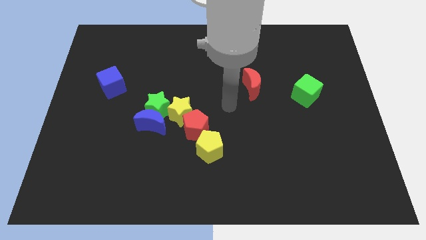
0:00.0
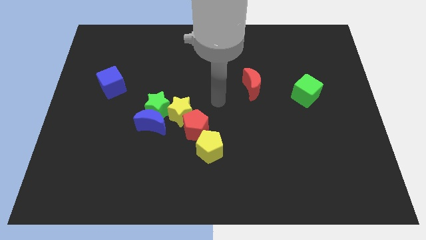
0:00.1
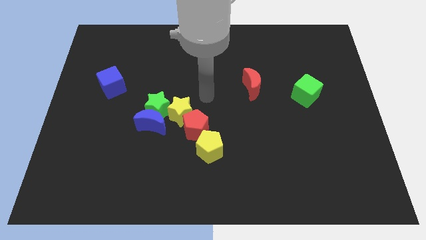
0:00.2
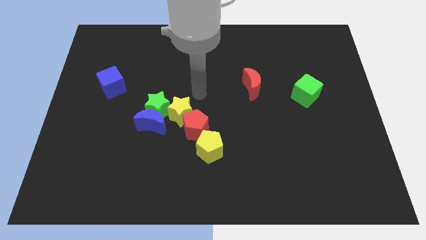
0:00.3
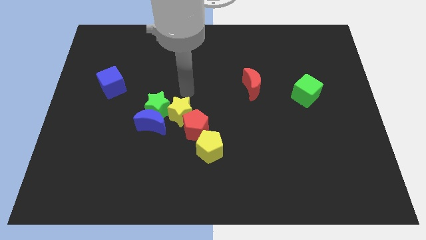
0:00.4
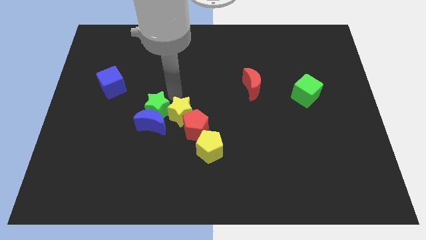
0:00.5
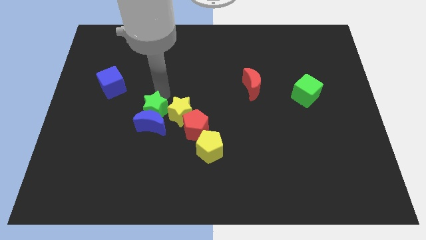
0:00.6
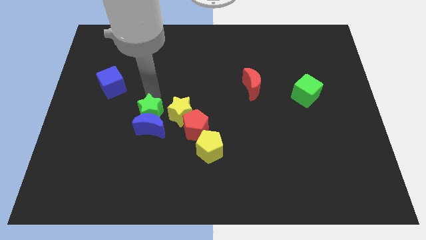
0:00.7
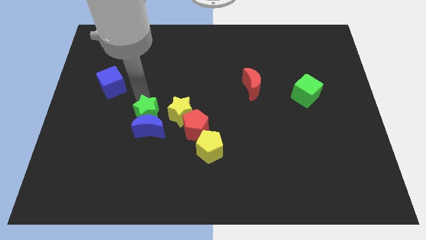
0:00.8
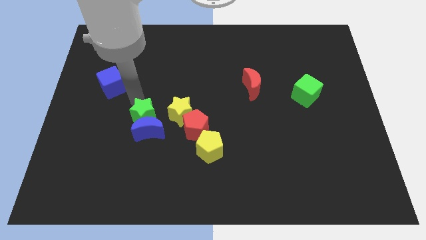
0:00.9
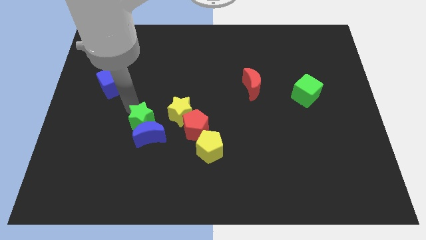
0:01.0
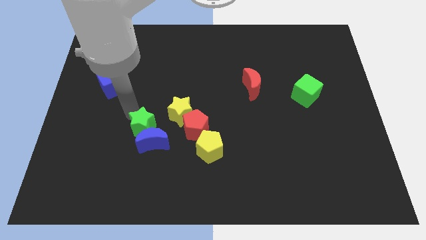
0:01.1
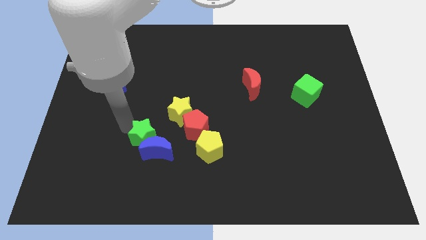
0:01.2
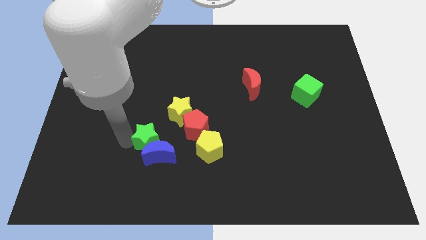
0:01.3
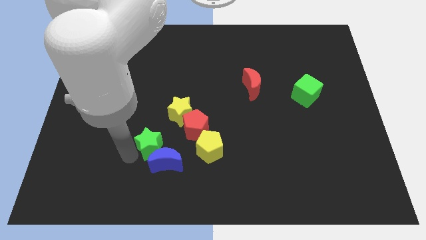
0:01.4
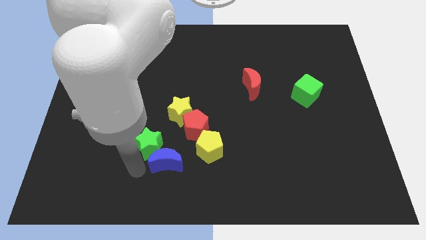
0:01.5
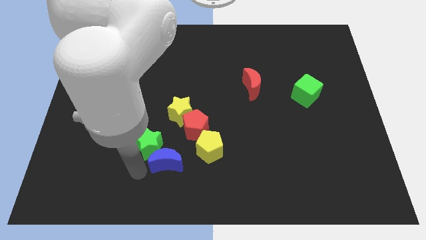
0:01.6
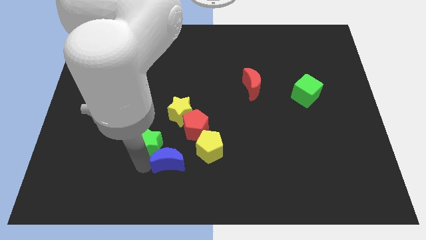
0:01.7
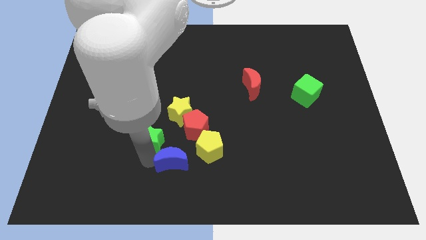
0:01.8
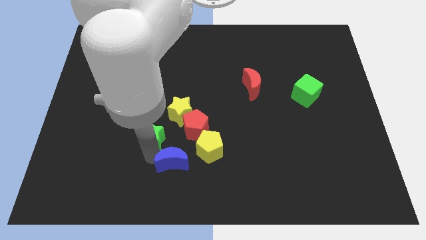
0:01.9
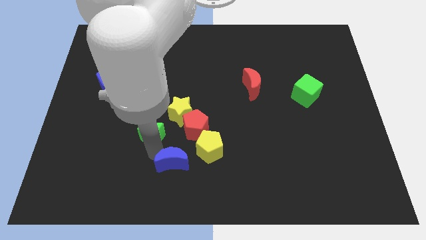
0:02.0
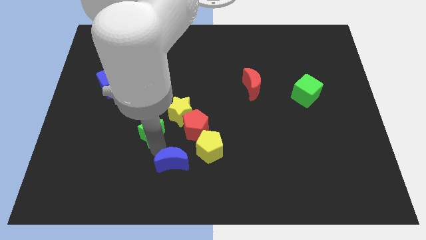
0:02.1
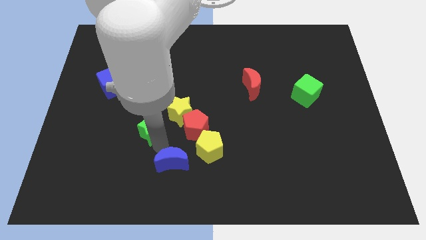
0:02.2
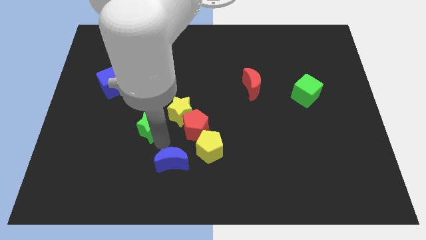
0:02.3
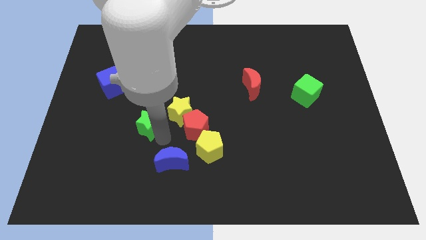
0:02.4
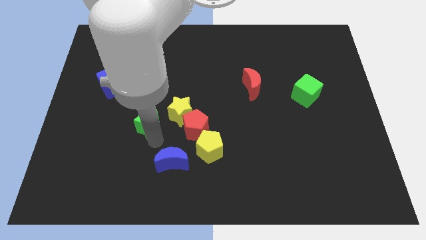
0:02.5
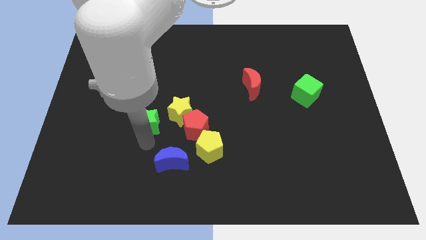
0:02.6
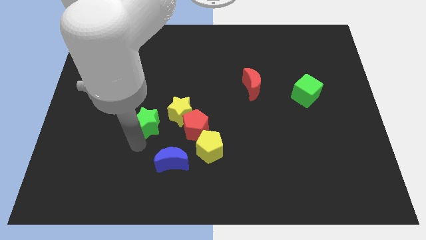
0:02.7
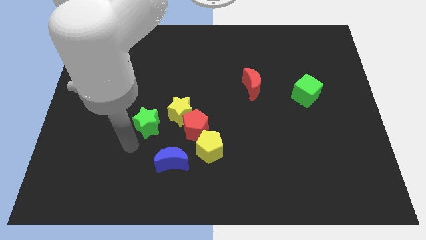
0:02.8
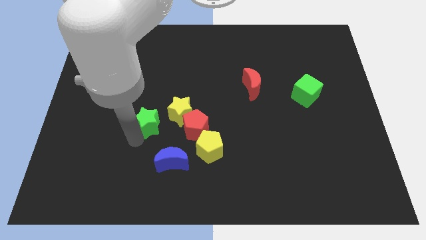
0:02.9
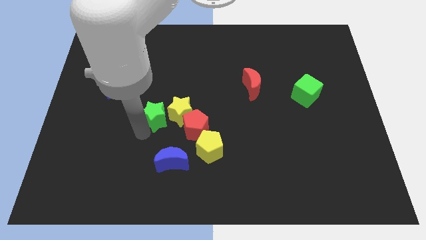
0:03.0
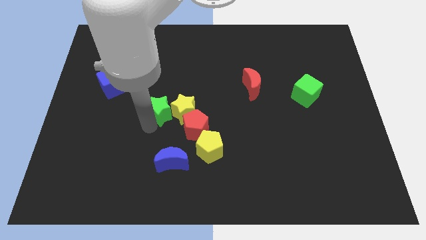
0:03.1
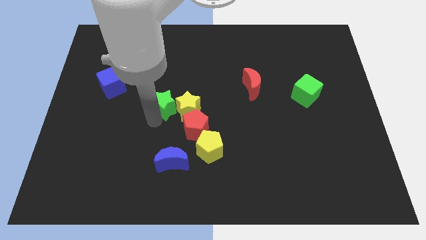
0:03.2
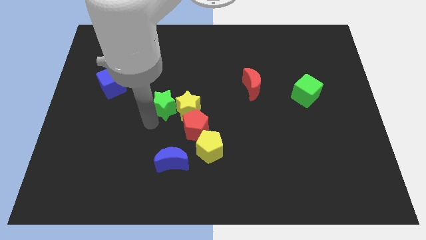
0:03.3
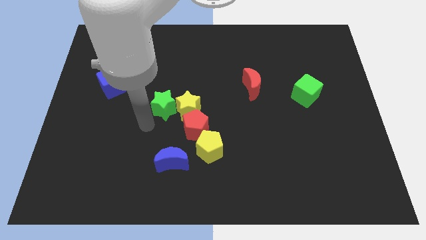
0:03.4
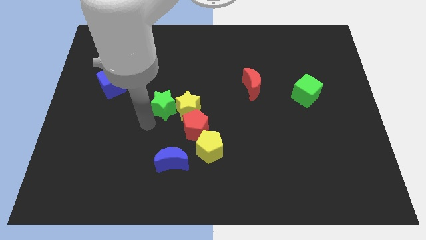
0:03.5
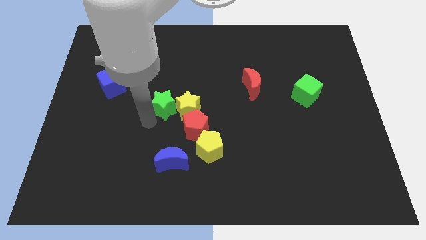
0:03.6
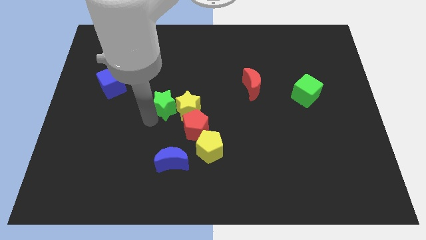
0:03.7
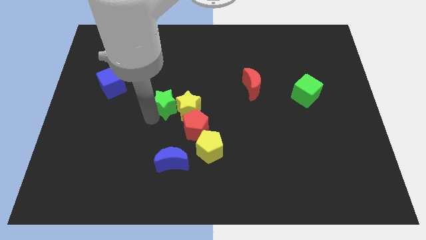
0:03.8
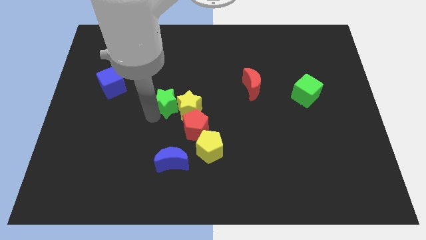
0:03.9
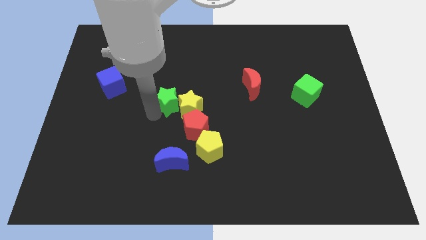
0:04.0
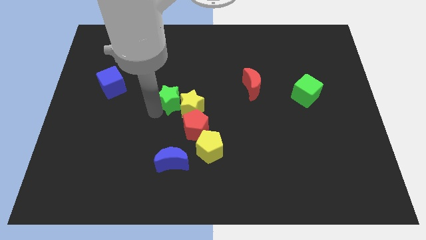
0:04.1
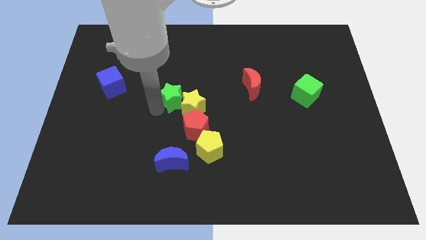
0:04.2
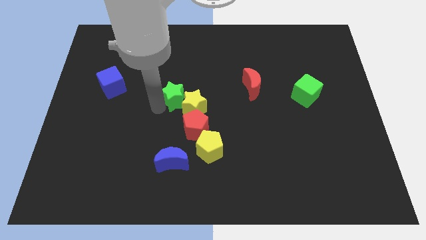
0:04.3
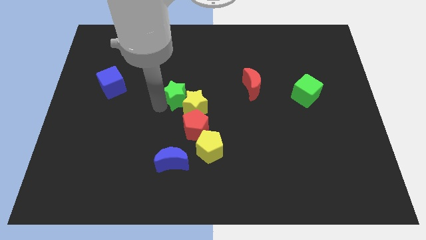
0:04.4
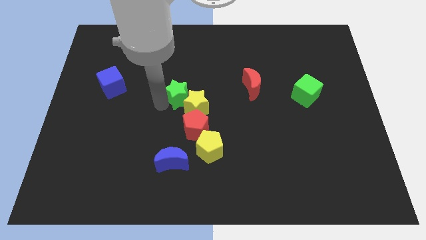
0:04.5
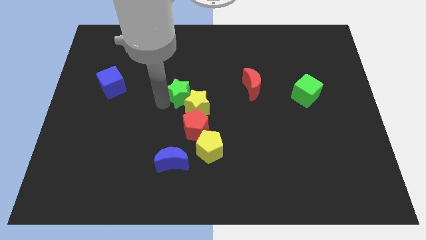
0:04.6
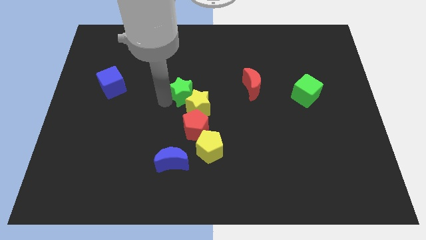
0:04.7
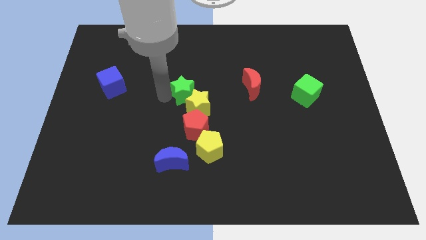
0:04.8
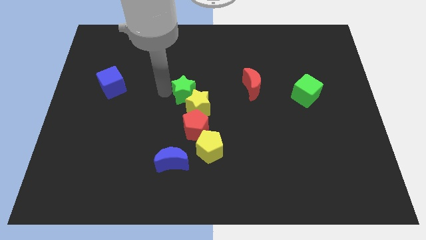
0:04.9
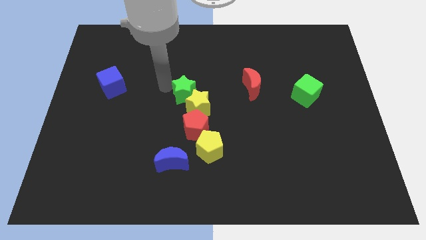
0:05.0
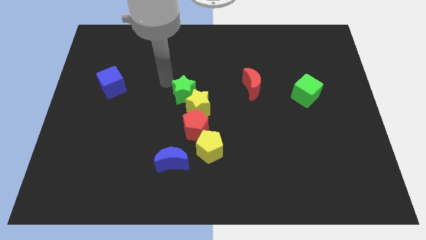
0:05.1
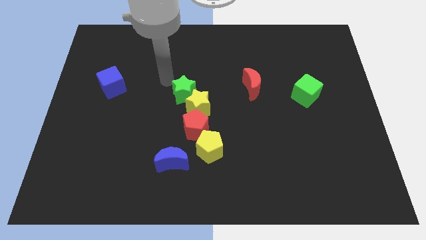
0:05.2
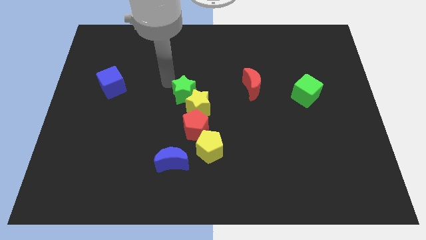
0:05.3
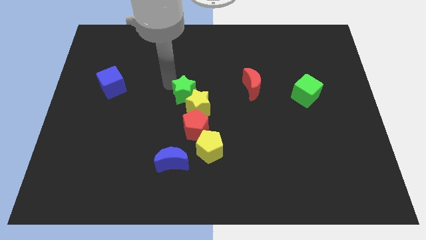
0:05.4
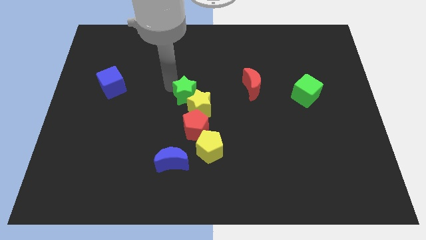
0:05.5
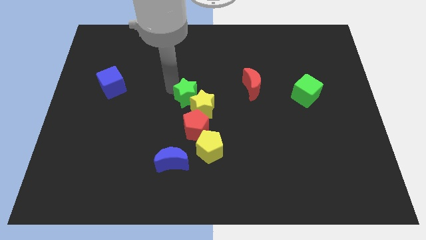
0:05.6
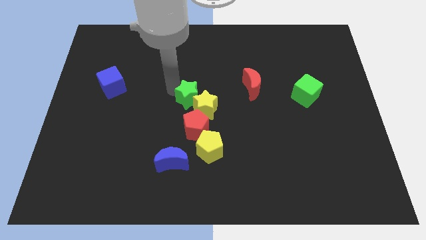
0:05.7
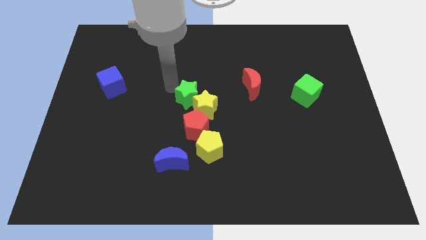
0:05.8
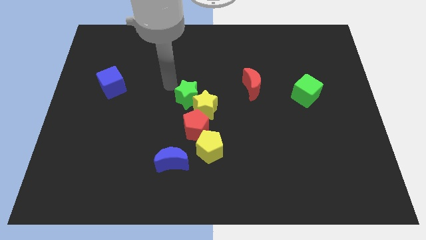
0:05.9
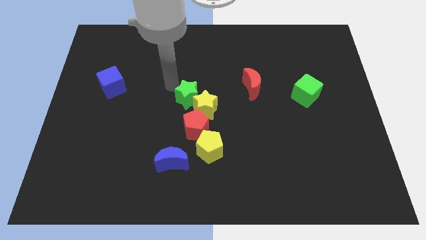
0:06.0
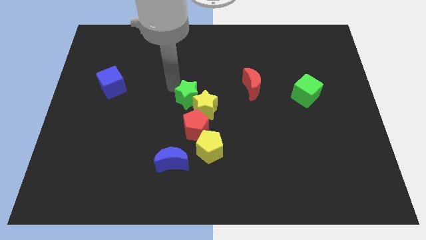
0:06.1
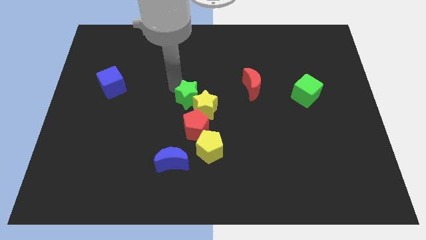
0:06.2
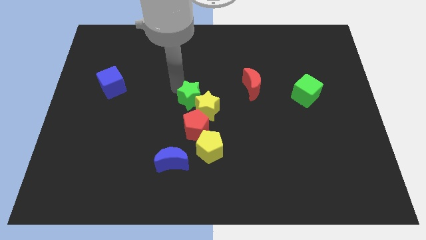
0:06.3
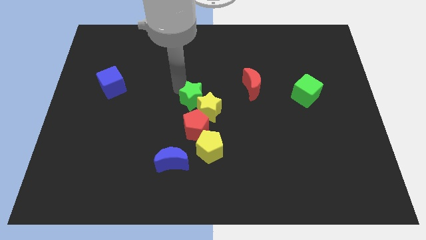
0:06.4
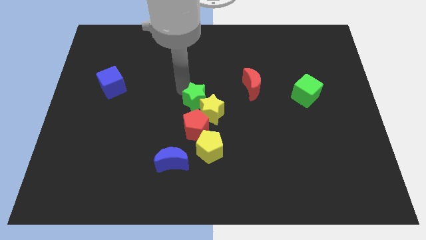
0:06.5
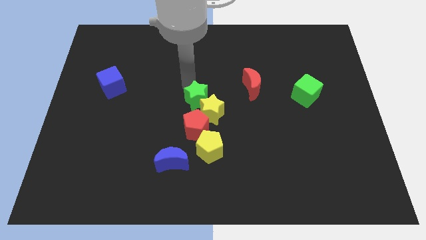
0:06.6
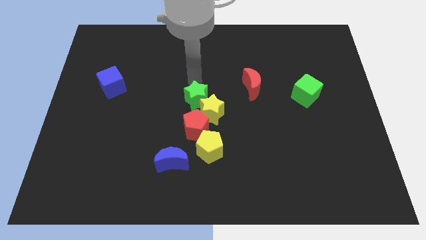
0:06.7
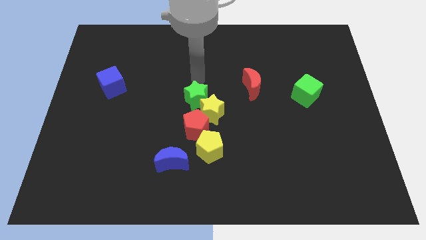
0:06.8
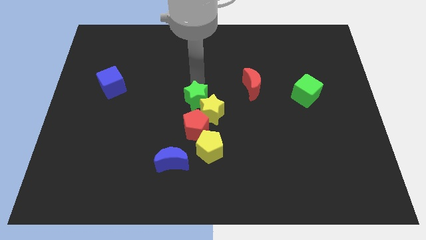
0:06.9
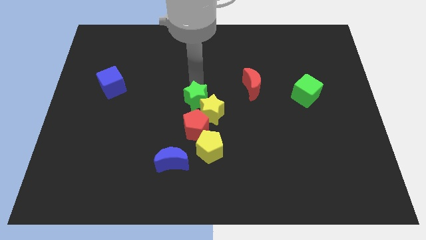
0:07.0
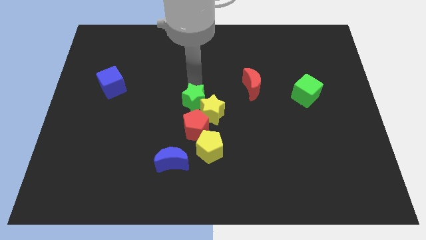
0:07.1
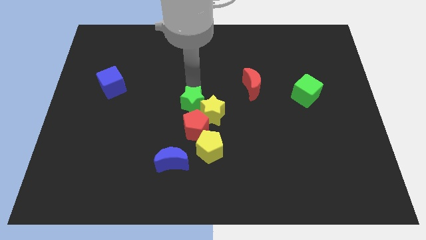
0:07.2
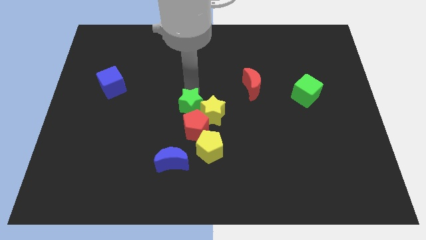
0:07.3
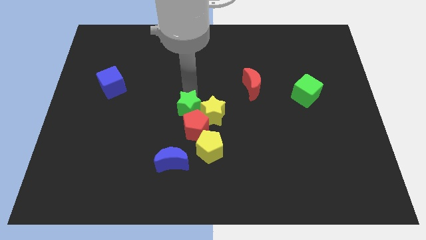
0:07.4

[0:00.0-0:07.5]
move the green star towards the red pentagon
